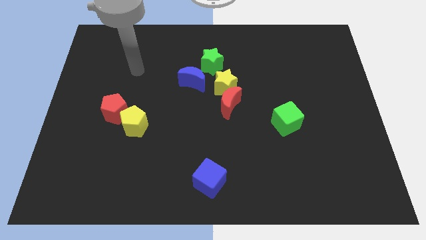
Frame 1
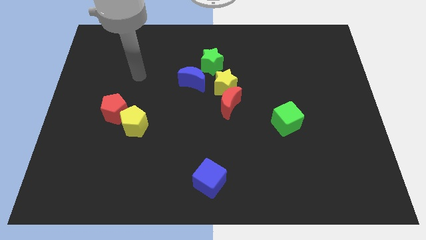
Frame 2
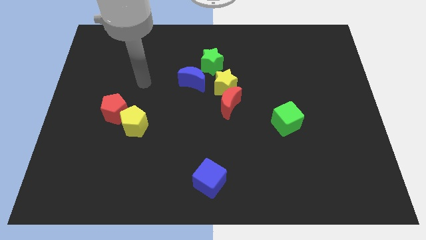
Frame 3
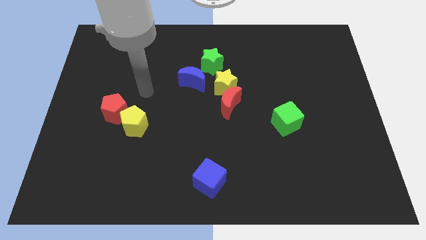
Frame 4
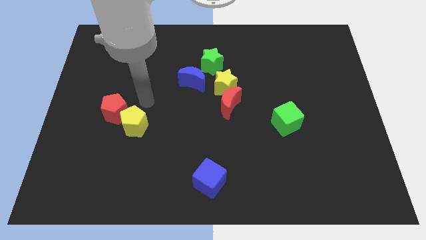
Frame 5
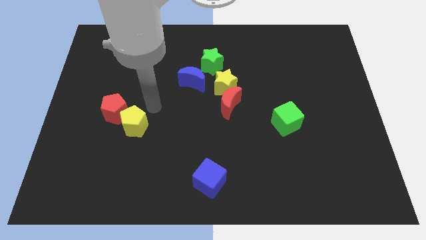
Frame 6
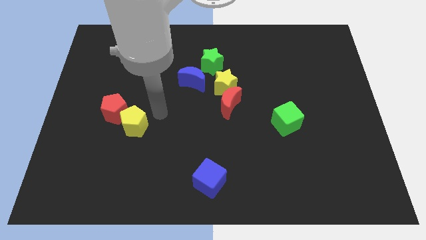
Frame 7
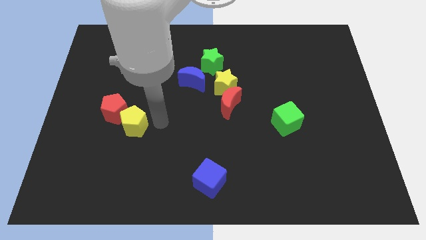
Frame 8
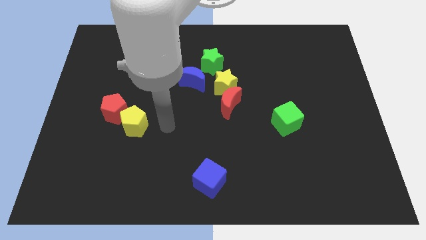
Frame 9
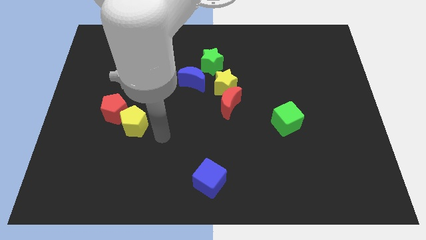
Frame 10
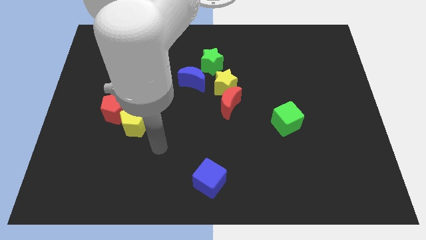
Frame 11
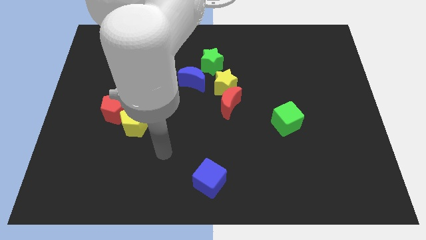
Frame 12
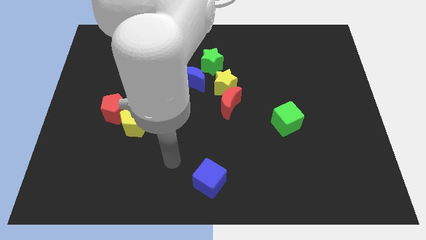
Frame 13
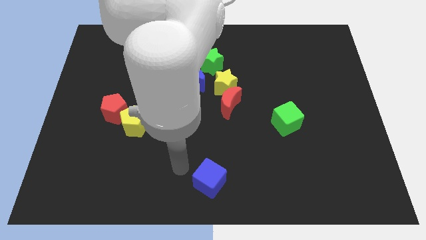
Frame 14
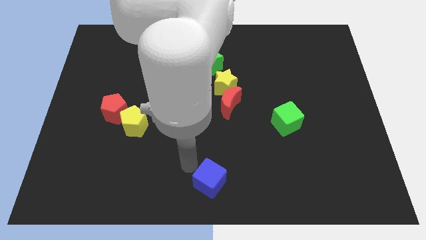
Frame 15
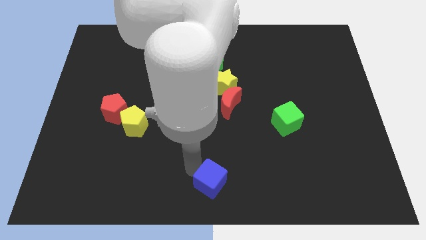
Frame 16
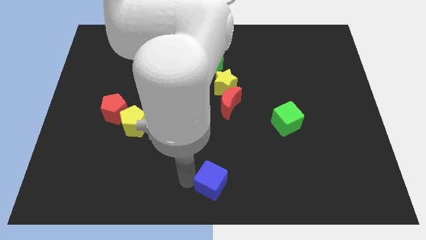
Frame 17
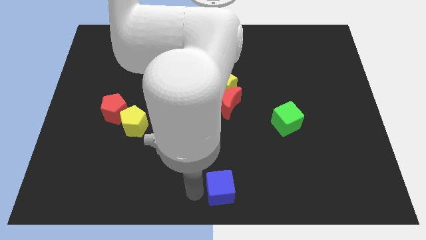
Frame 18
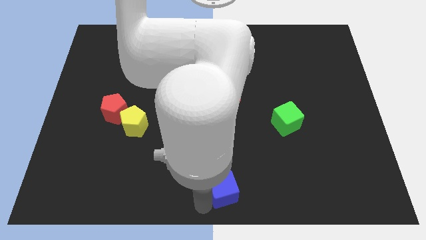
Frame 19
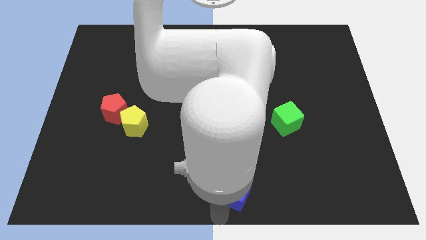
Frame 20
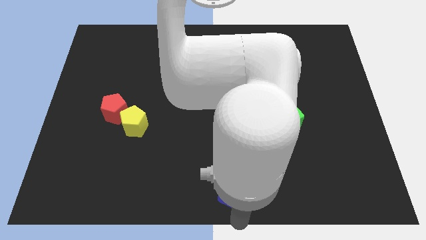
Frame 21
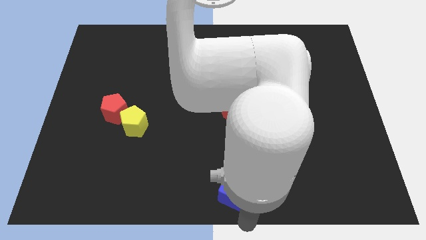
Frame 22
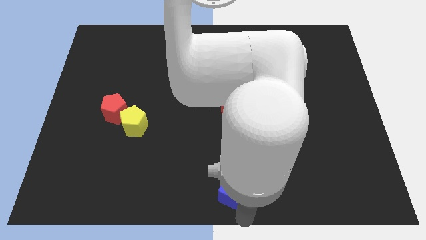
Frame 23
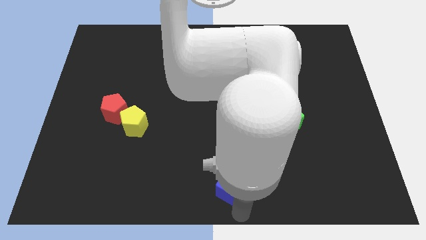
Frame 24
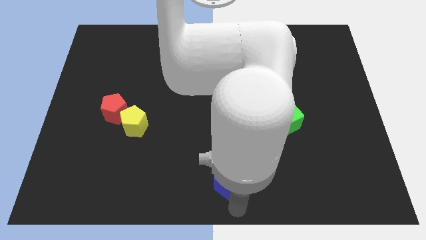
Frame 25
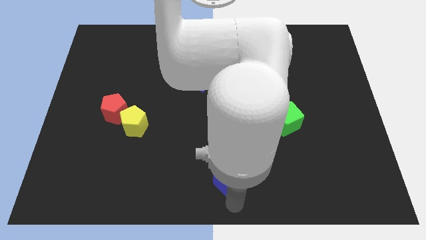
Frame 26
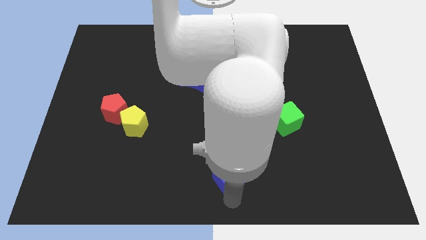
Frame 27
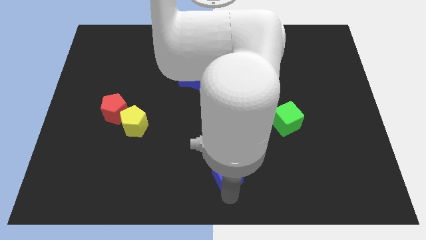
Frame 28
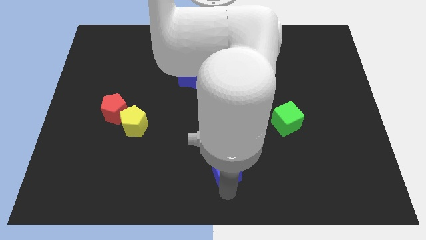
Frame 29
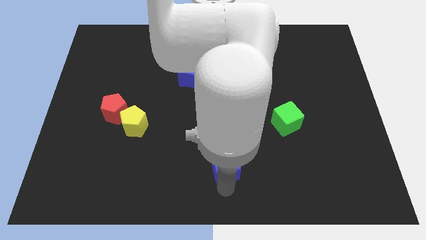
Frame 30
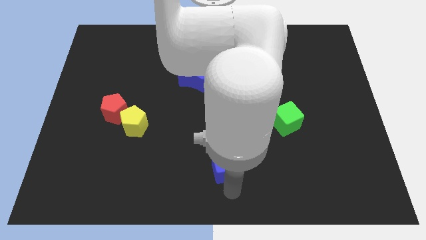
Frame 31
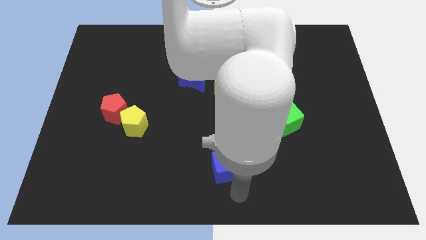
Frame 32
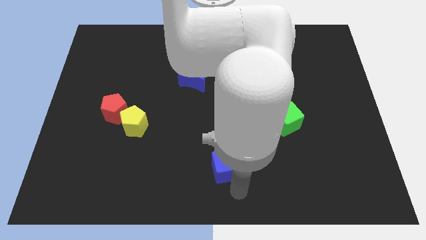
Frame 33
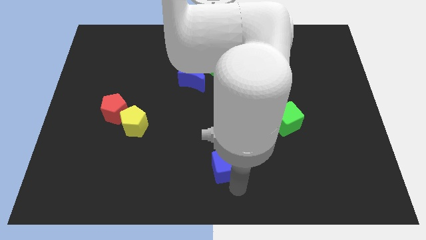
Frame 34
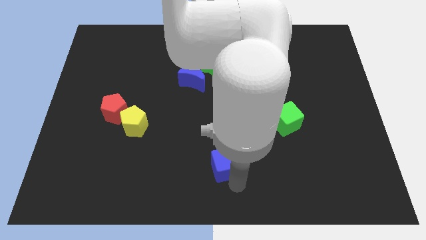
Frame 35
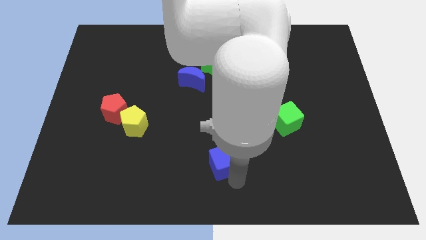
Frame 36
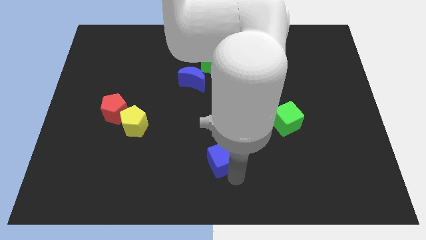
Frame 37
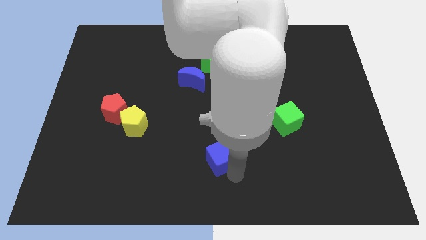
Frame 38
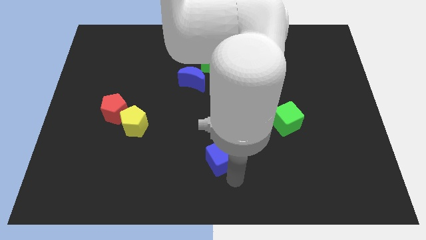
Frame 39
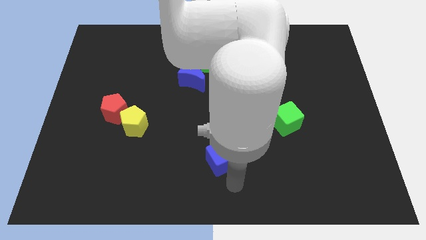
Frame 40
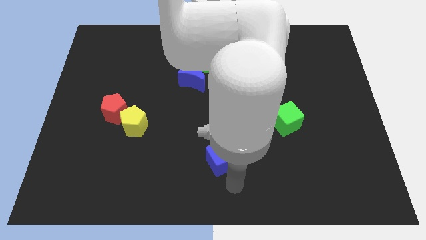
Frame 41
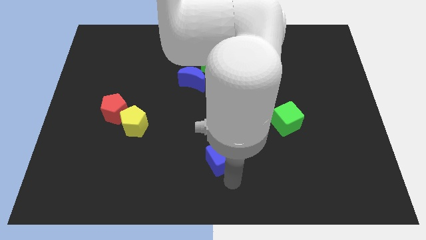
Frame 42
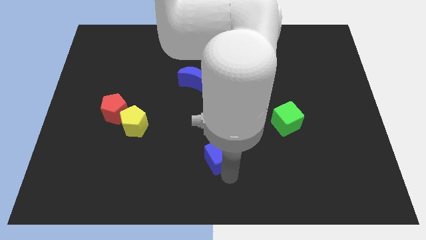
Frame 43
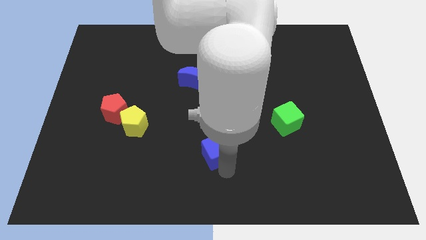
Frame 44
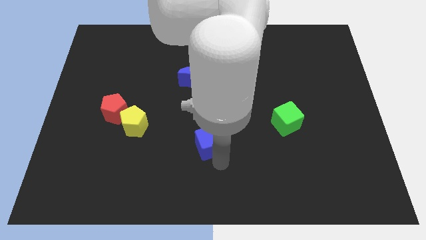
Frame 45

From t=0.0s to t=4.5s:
slightly push the blue cube up

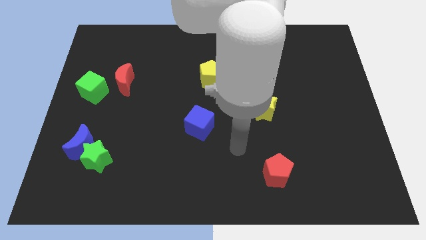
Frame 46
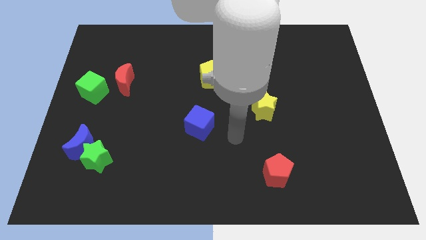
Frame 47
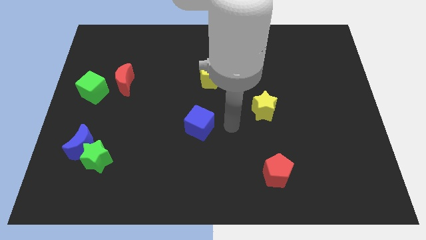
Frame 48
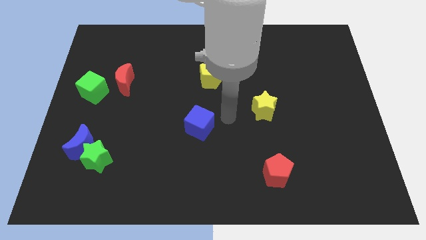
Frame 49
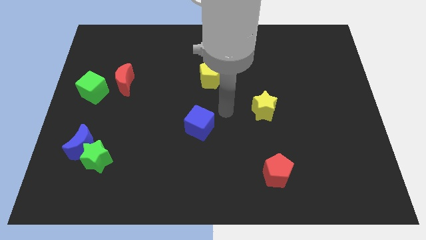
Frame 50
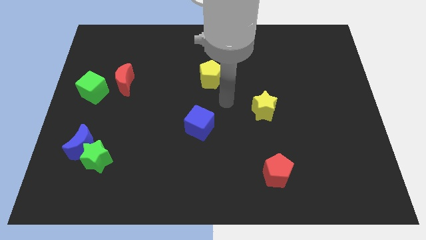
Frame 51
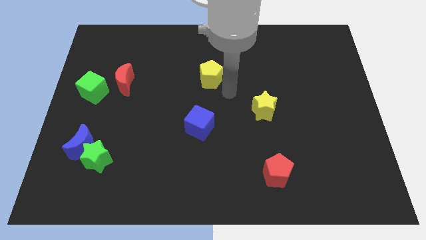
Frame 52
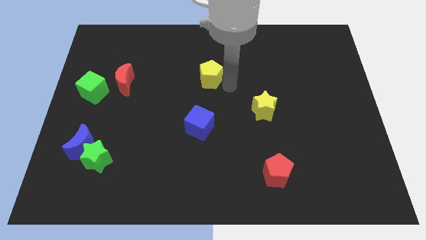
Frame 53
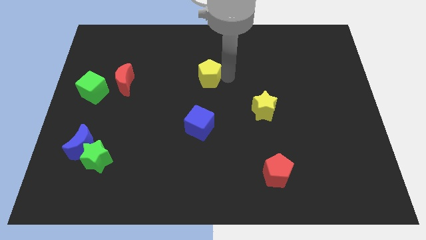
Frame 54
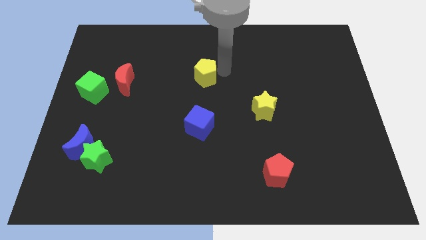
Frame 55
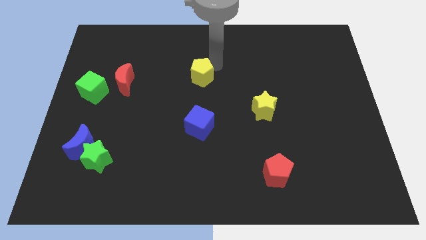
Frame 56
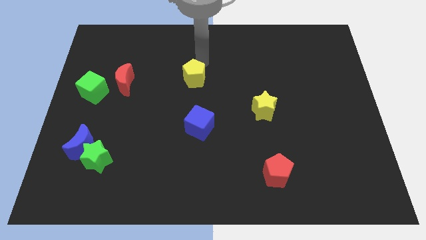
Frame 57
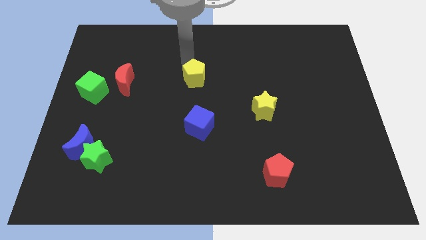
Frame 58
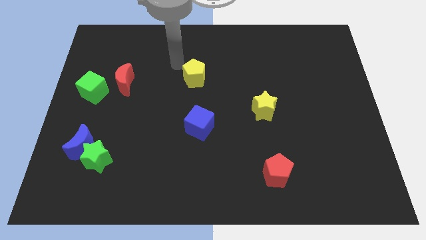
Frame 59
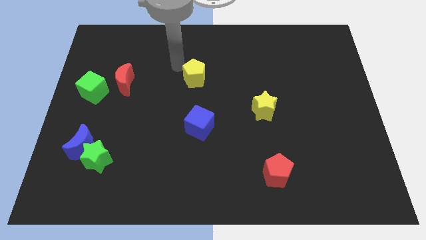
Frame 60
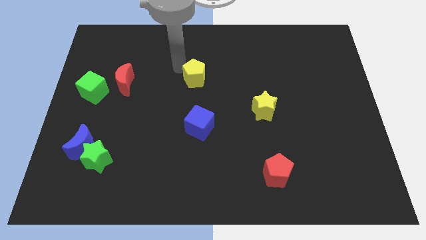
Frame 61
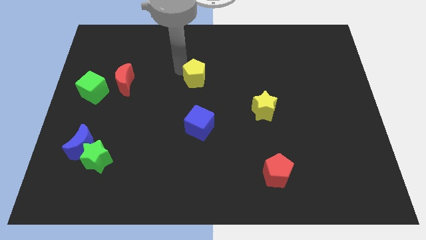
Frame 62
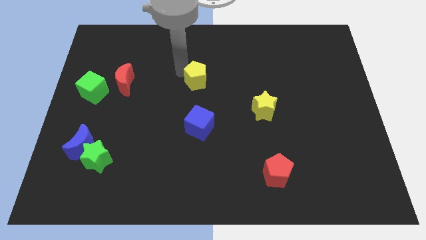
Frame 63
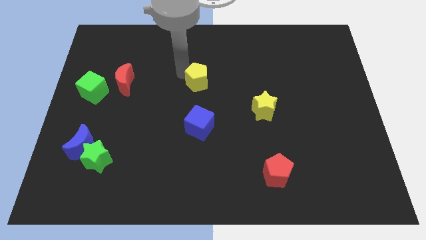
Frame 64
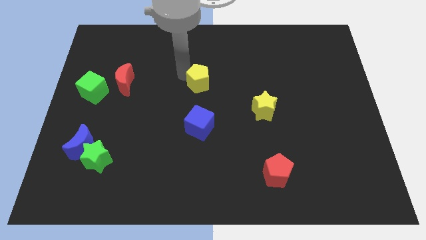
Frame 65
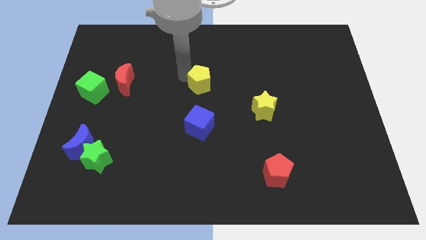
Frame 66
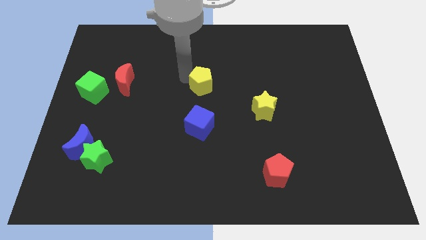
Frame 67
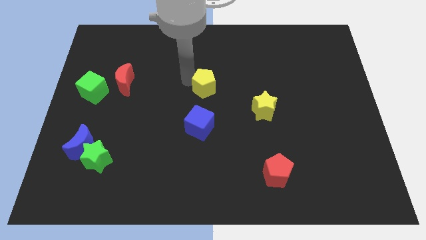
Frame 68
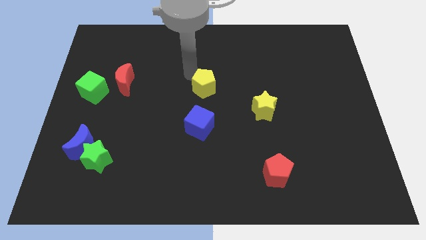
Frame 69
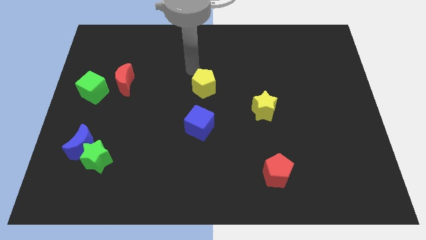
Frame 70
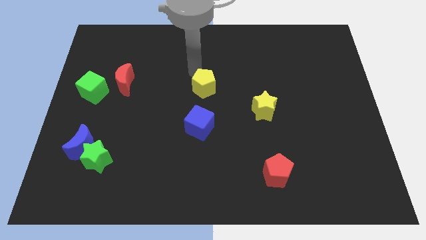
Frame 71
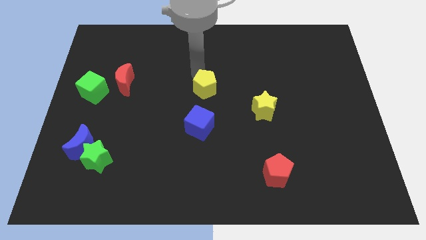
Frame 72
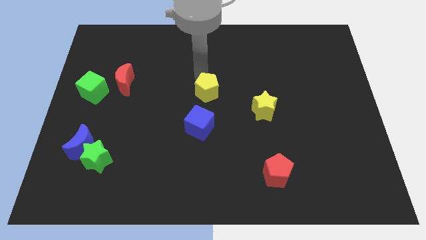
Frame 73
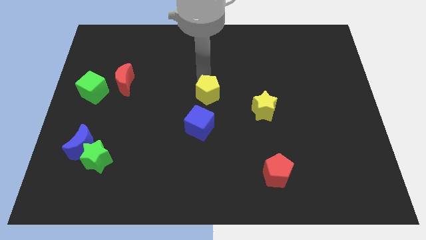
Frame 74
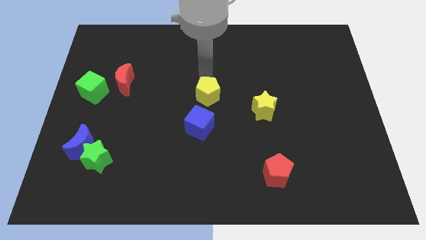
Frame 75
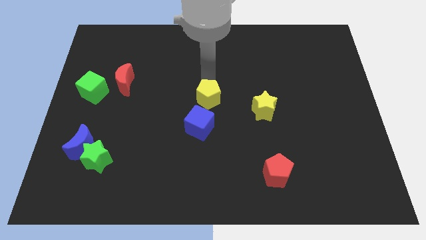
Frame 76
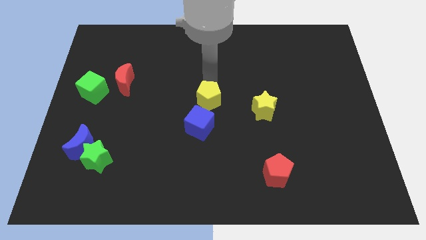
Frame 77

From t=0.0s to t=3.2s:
slide the yellow pentagon slightly downwards

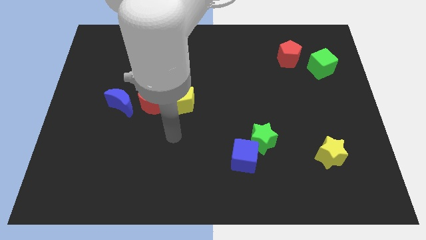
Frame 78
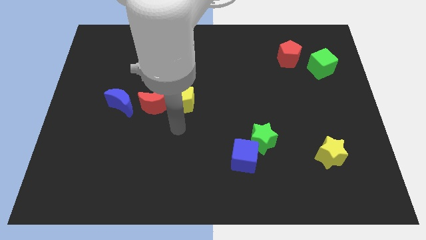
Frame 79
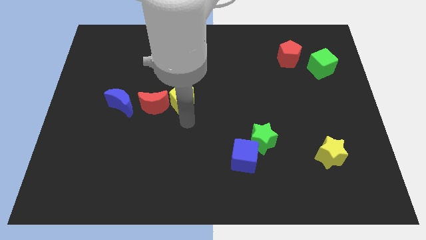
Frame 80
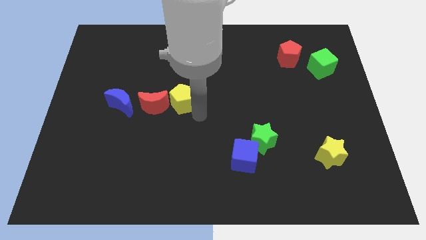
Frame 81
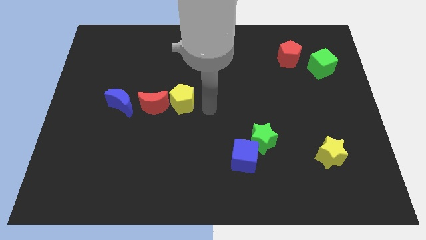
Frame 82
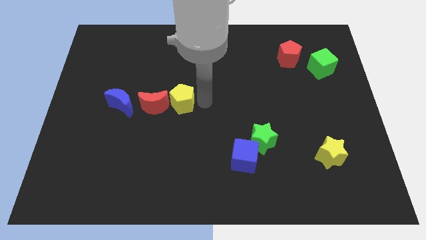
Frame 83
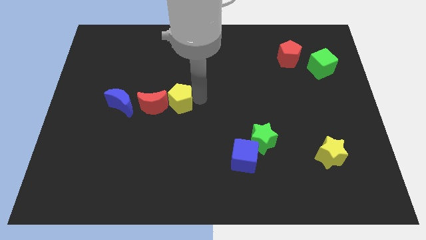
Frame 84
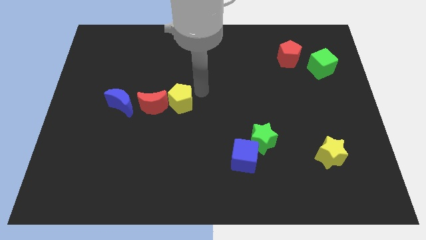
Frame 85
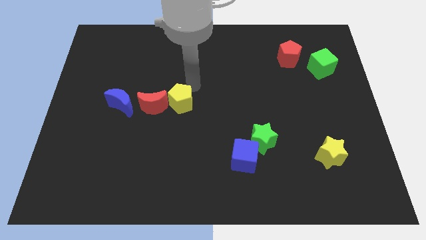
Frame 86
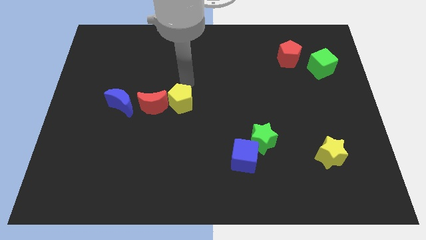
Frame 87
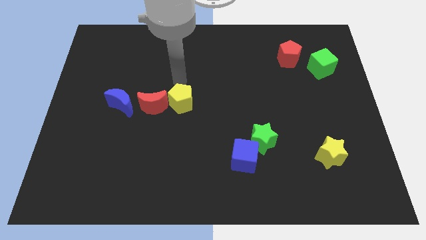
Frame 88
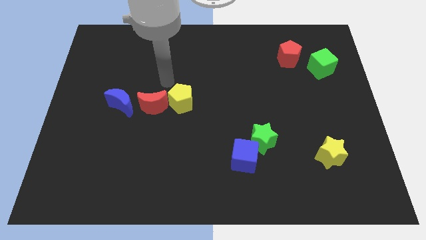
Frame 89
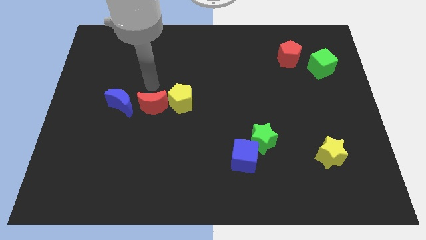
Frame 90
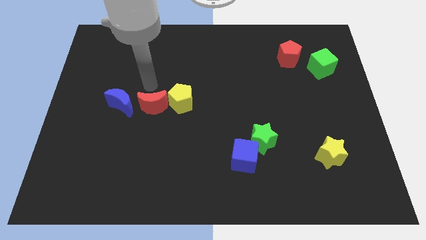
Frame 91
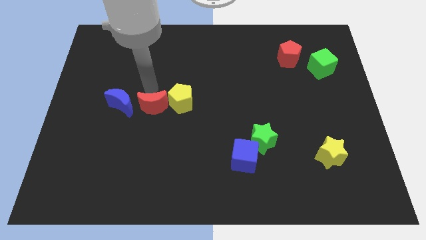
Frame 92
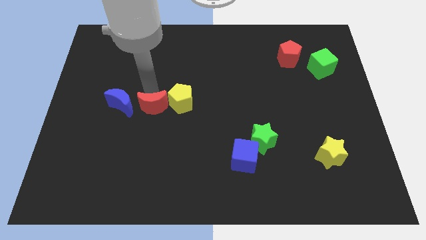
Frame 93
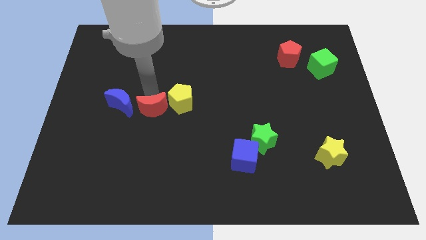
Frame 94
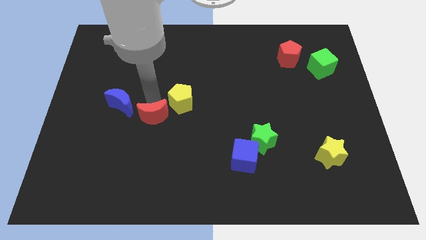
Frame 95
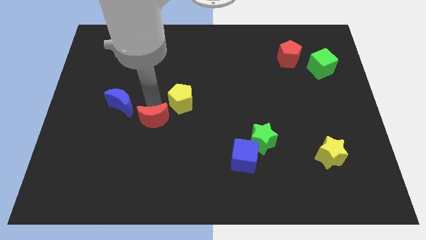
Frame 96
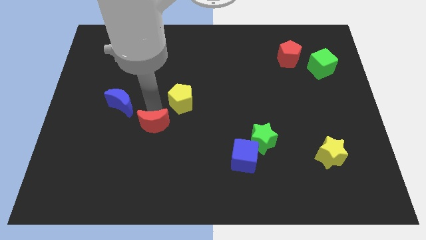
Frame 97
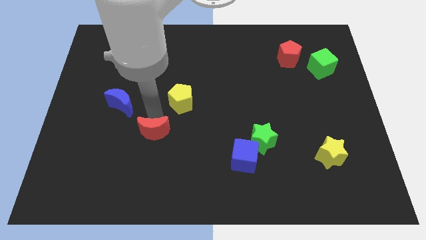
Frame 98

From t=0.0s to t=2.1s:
slightly push the red moon down
